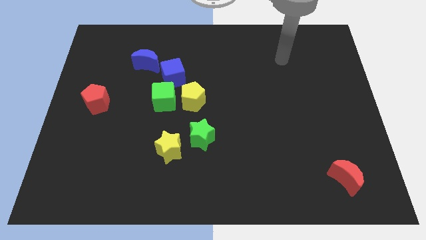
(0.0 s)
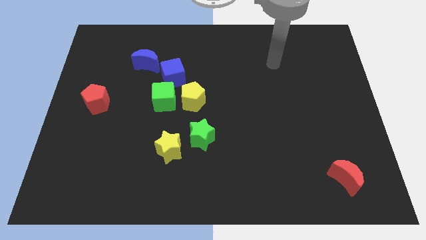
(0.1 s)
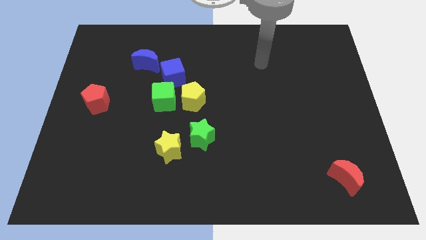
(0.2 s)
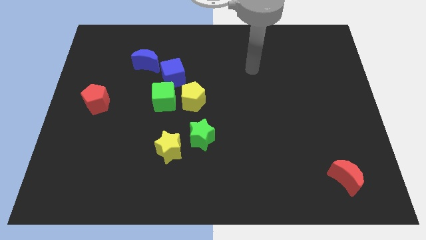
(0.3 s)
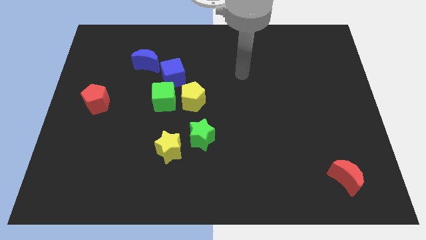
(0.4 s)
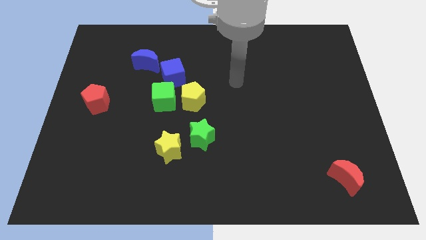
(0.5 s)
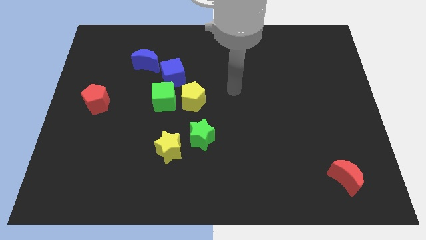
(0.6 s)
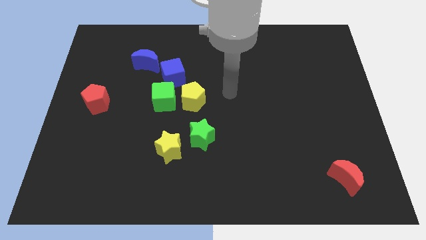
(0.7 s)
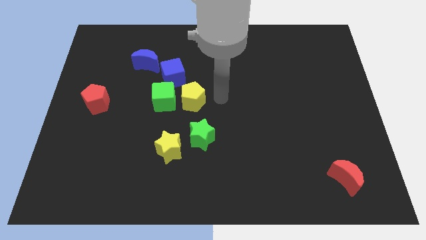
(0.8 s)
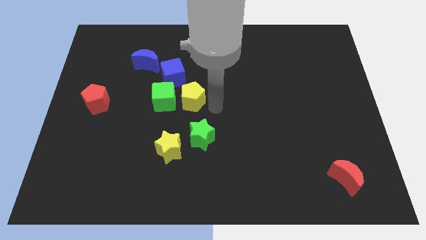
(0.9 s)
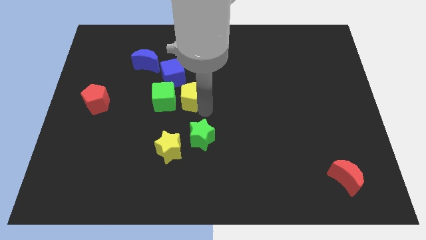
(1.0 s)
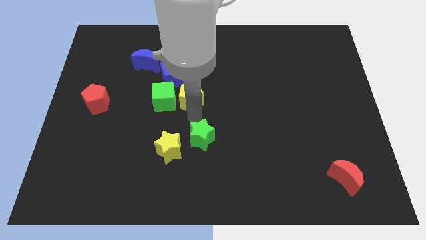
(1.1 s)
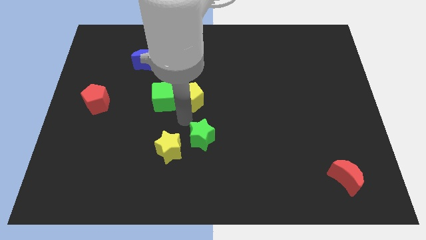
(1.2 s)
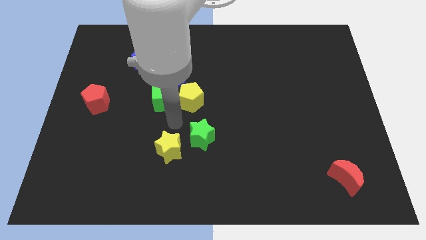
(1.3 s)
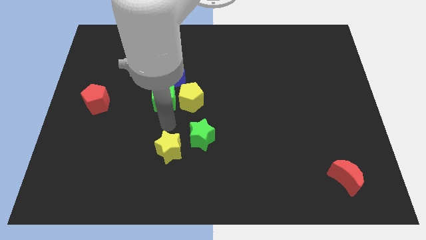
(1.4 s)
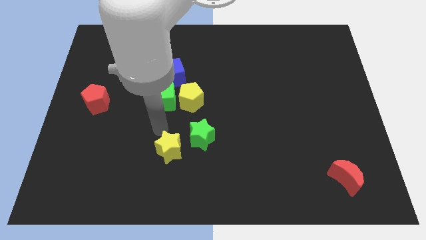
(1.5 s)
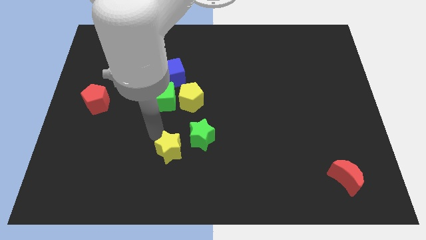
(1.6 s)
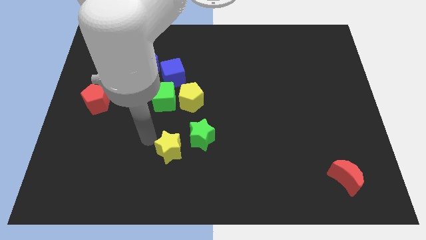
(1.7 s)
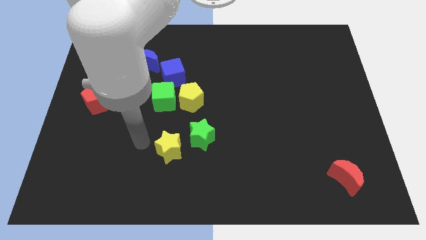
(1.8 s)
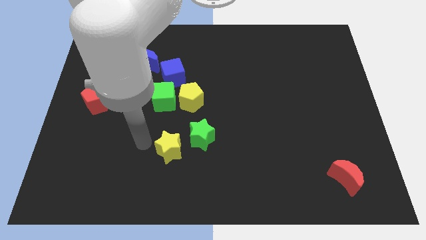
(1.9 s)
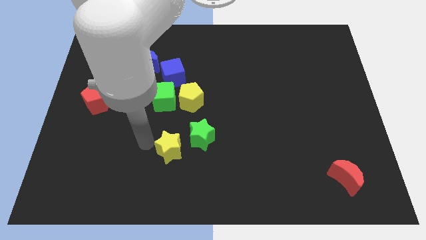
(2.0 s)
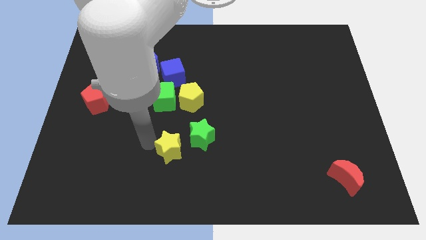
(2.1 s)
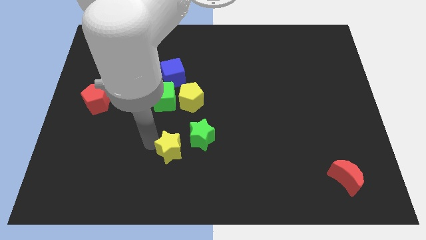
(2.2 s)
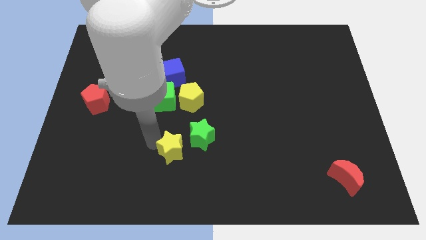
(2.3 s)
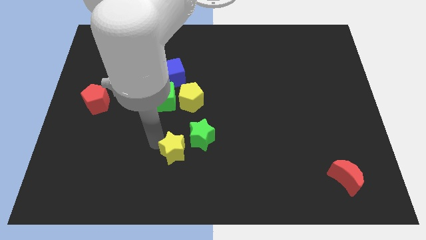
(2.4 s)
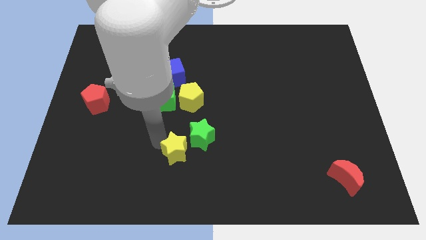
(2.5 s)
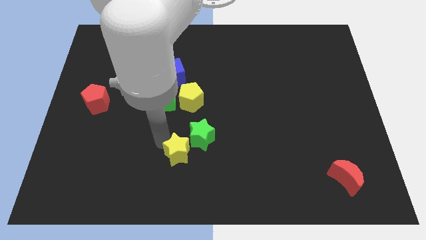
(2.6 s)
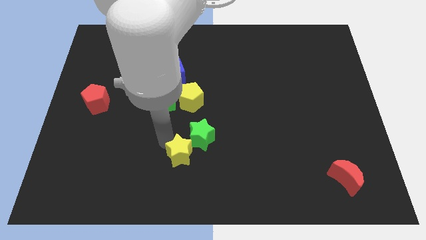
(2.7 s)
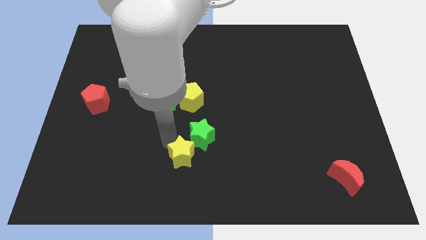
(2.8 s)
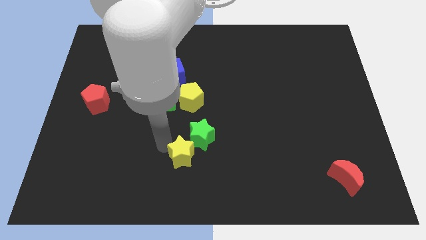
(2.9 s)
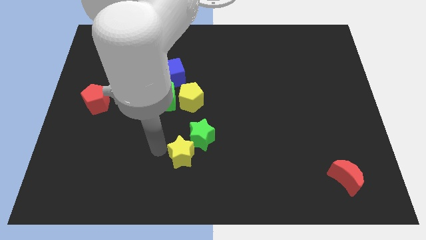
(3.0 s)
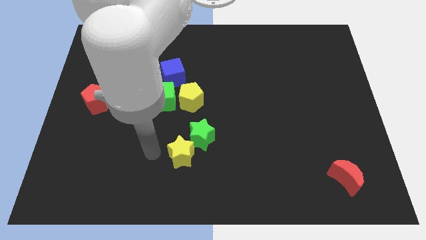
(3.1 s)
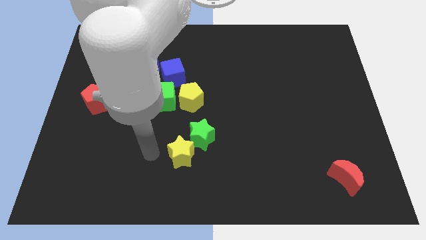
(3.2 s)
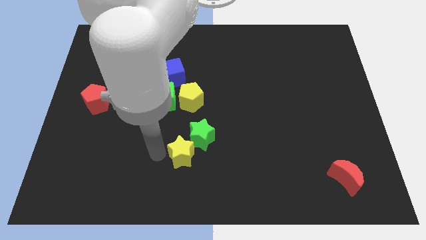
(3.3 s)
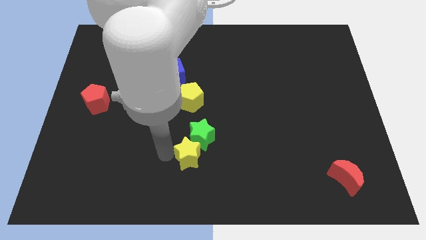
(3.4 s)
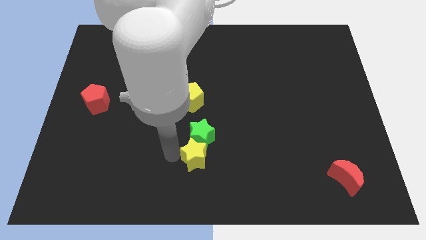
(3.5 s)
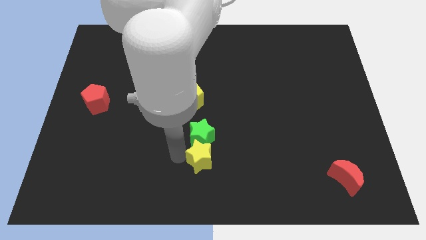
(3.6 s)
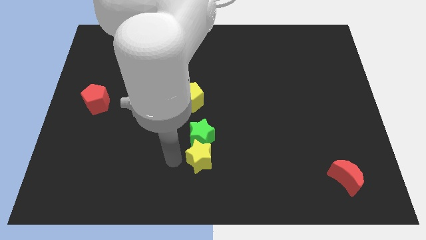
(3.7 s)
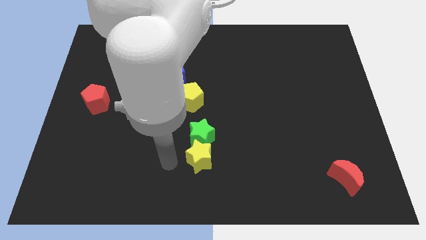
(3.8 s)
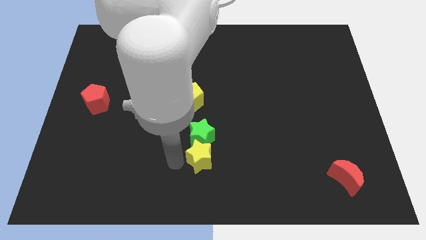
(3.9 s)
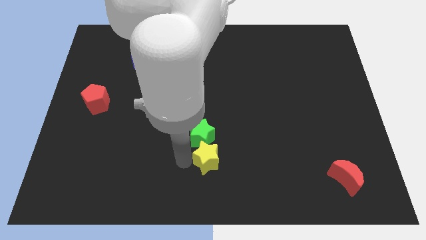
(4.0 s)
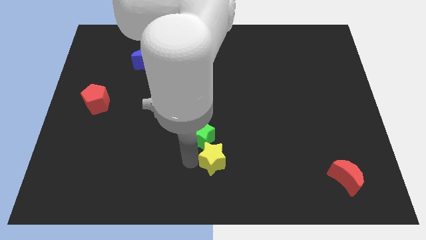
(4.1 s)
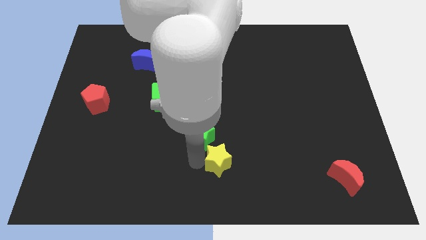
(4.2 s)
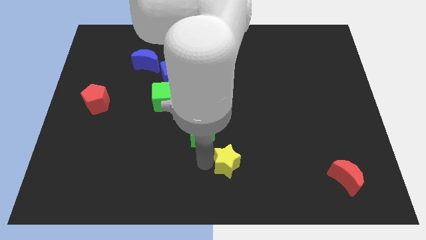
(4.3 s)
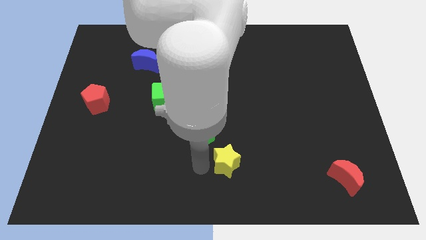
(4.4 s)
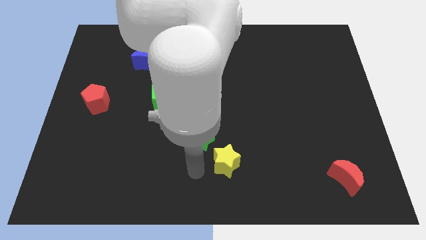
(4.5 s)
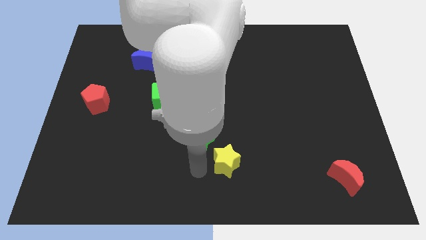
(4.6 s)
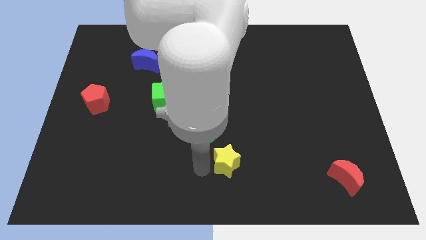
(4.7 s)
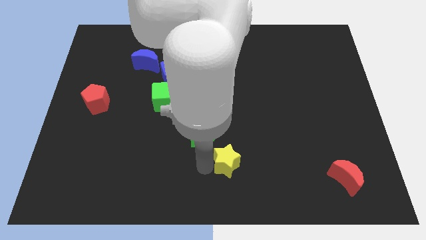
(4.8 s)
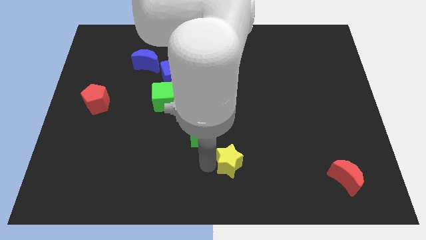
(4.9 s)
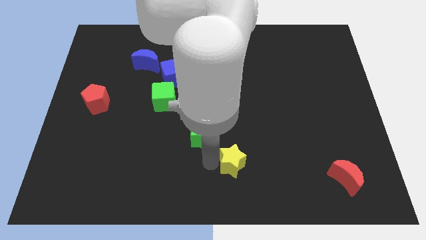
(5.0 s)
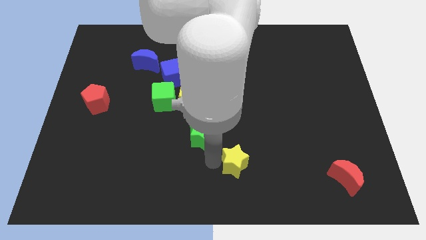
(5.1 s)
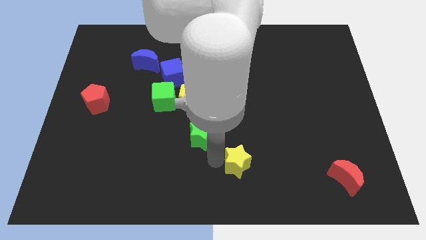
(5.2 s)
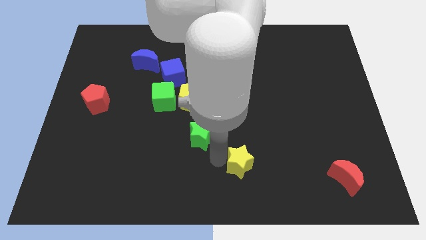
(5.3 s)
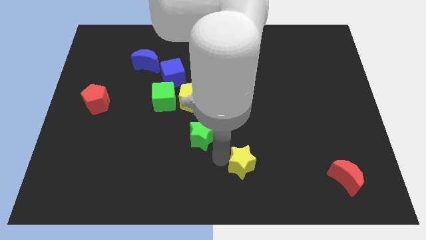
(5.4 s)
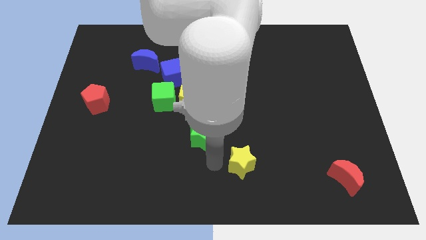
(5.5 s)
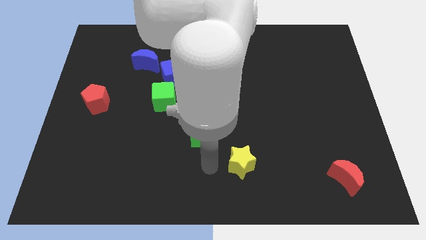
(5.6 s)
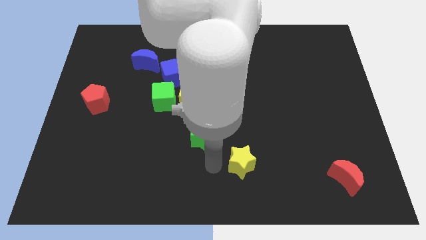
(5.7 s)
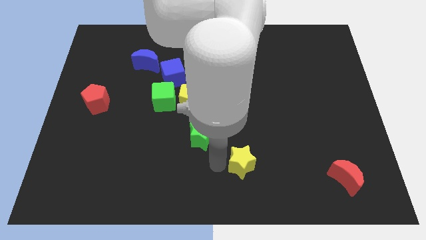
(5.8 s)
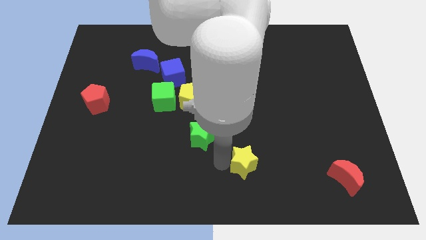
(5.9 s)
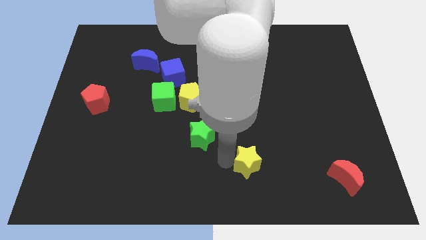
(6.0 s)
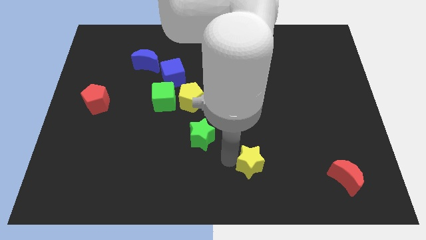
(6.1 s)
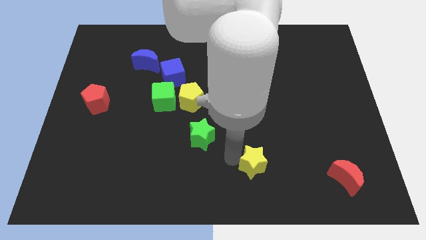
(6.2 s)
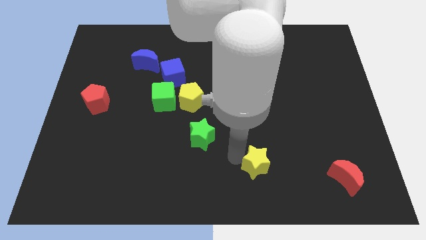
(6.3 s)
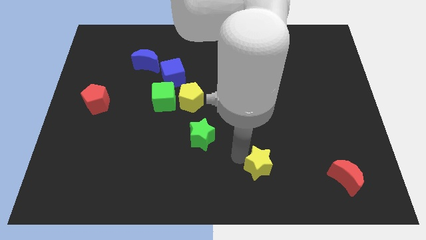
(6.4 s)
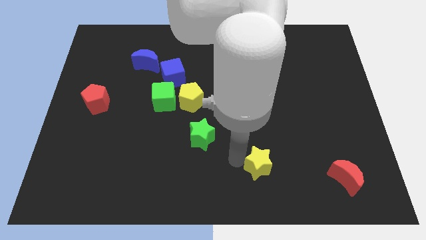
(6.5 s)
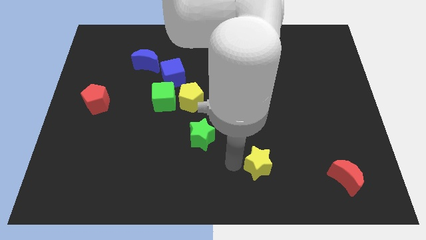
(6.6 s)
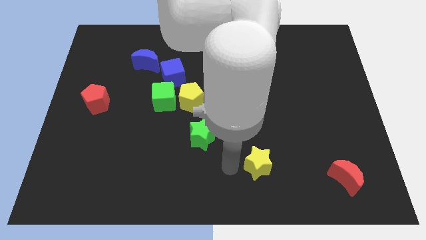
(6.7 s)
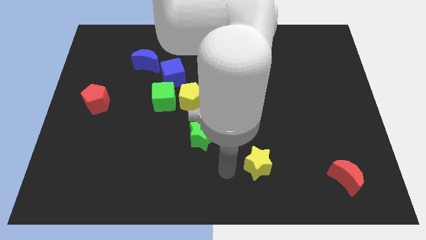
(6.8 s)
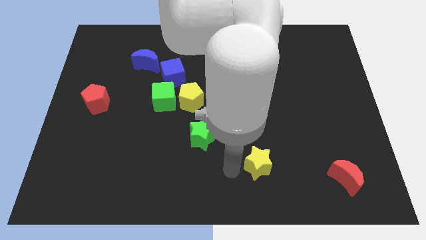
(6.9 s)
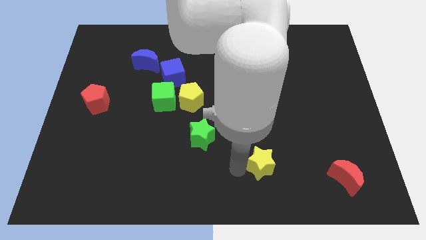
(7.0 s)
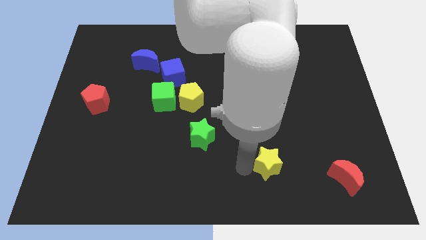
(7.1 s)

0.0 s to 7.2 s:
slide the yellow star right

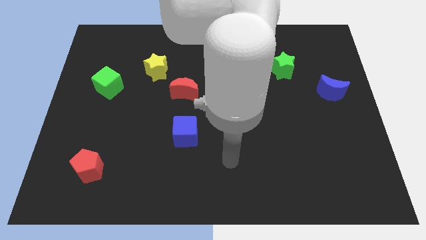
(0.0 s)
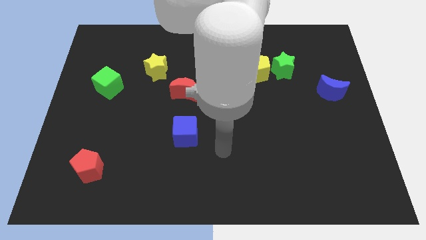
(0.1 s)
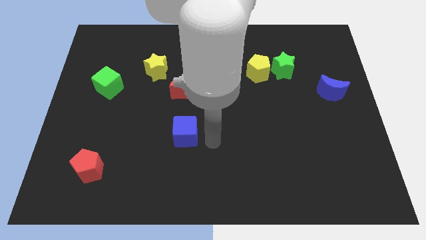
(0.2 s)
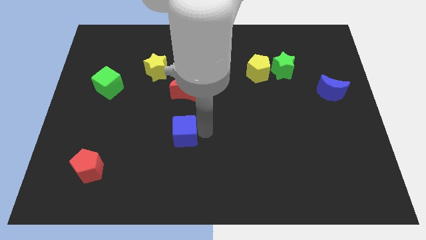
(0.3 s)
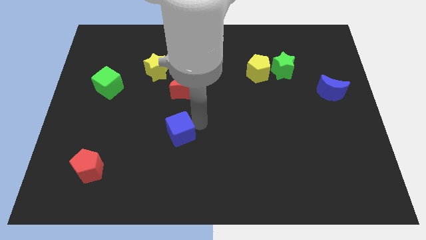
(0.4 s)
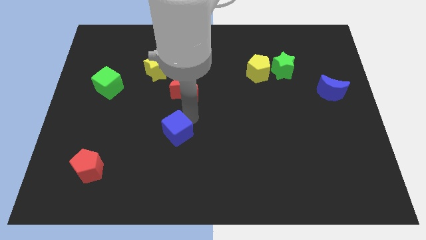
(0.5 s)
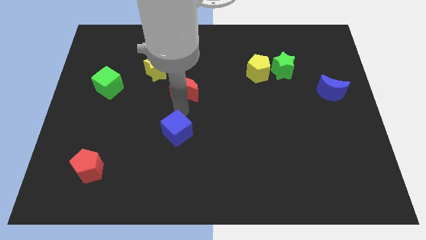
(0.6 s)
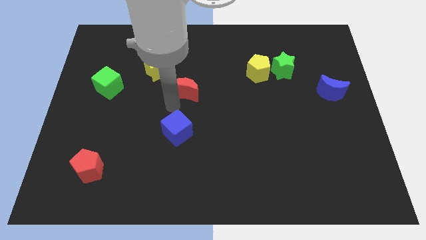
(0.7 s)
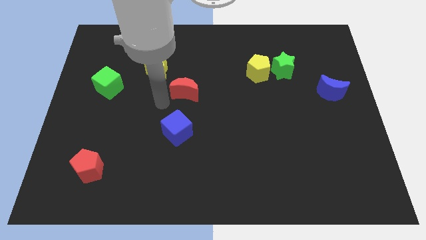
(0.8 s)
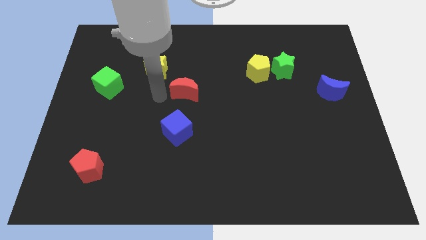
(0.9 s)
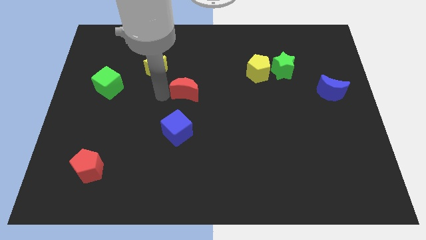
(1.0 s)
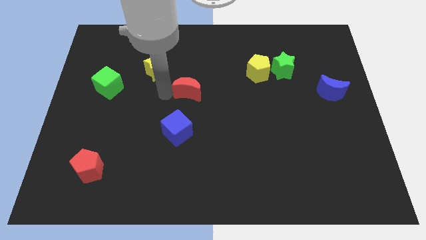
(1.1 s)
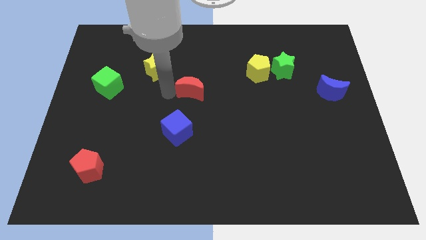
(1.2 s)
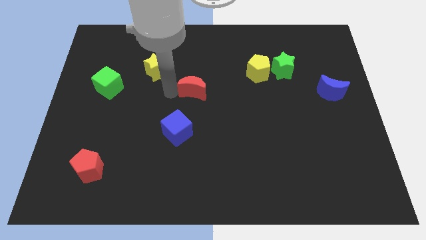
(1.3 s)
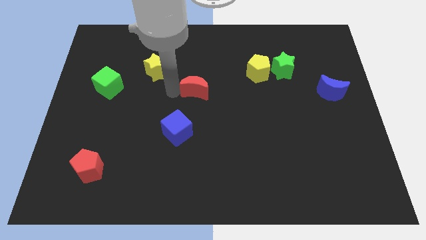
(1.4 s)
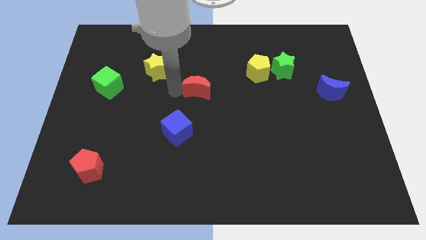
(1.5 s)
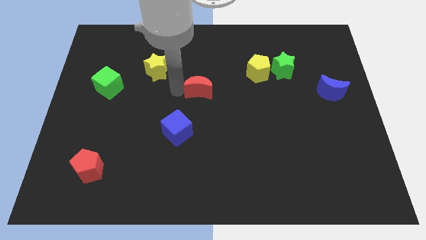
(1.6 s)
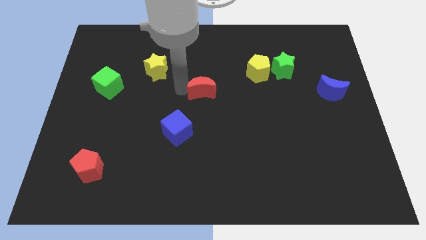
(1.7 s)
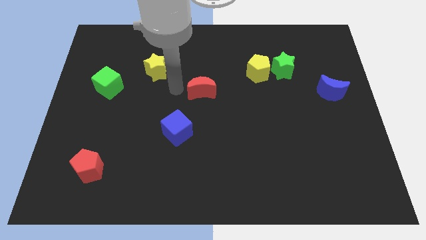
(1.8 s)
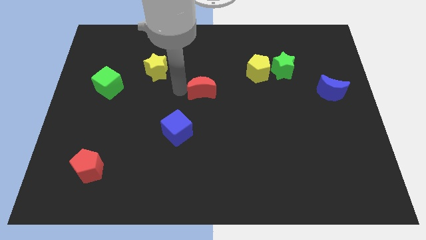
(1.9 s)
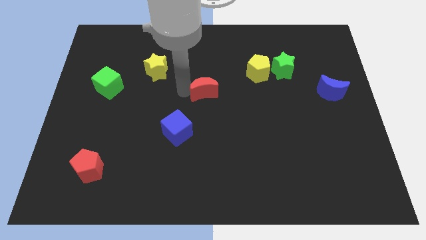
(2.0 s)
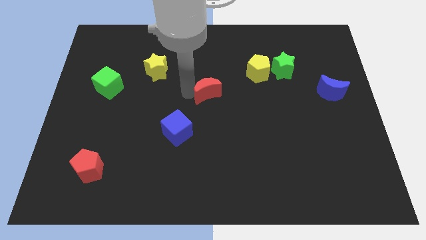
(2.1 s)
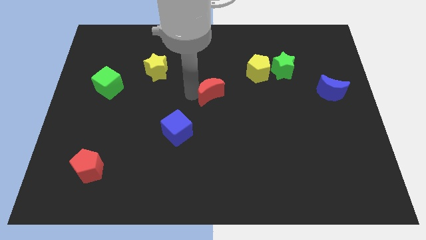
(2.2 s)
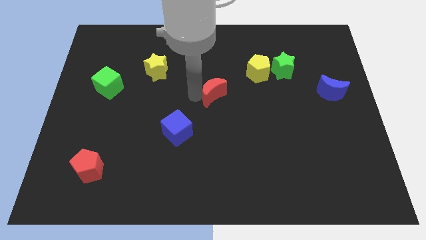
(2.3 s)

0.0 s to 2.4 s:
slide the red moon right a little bit
